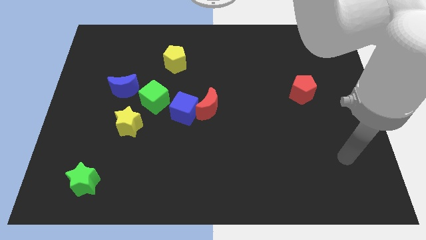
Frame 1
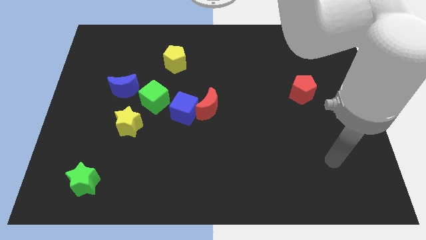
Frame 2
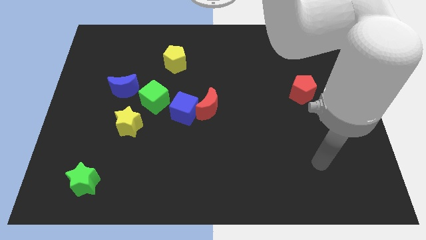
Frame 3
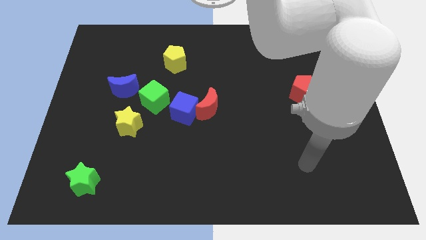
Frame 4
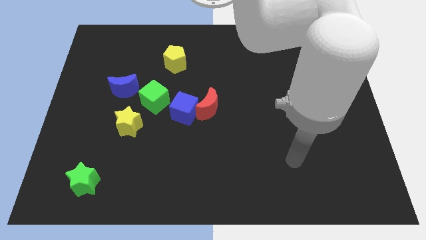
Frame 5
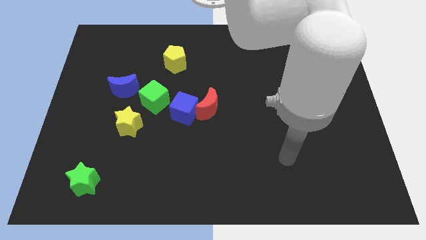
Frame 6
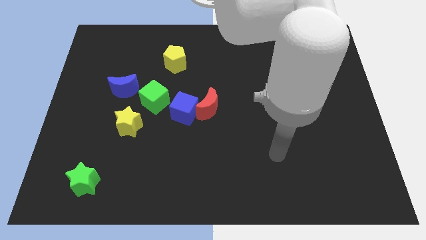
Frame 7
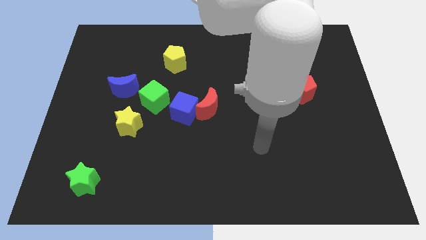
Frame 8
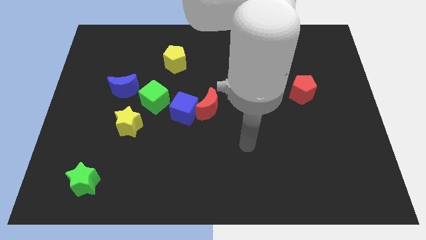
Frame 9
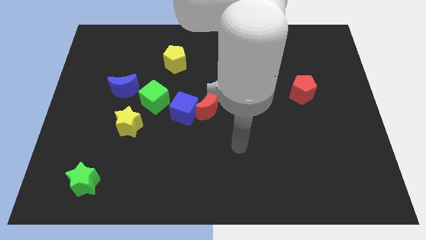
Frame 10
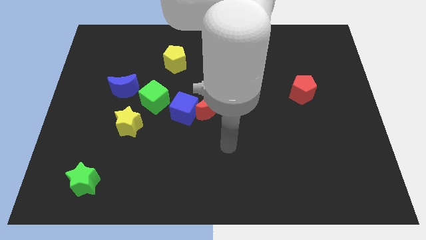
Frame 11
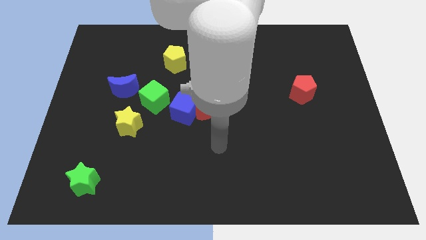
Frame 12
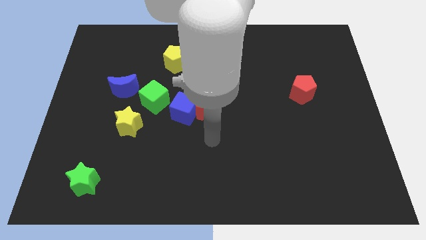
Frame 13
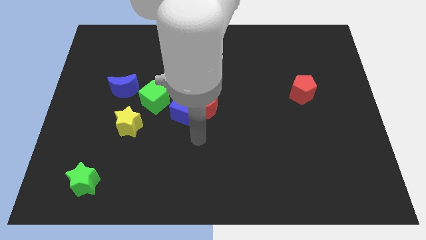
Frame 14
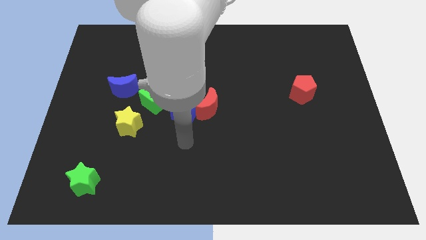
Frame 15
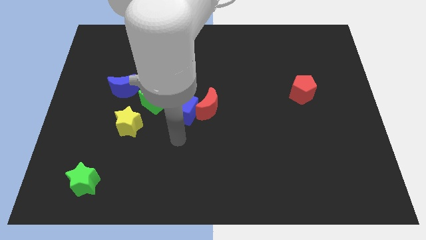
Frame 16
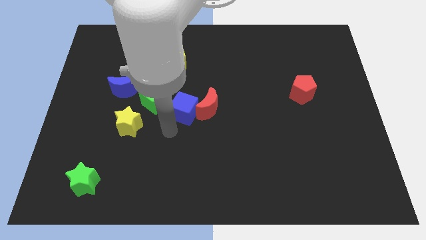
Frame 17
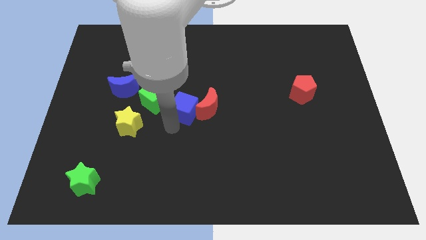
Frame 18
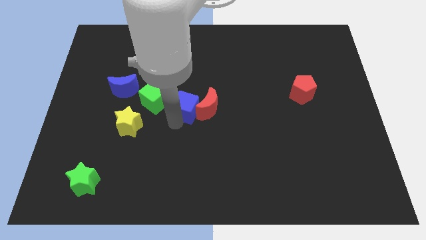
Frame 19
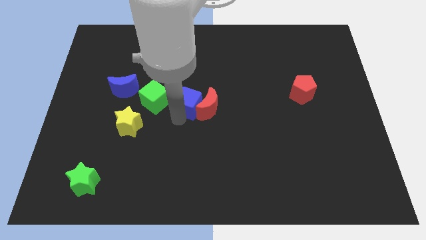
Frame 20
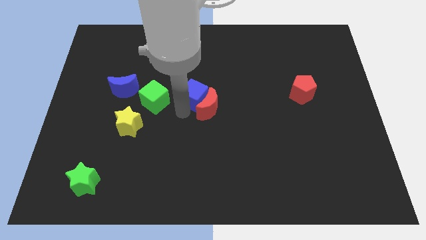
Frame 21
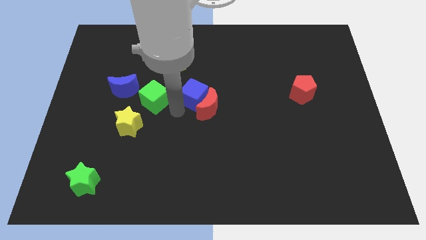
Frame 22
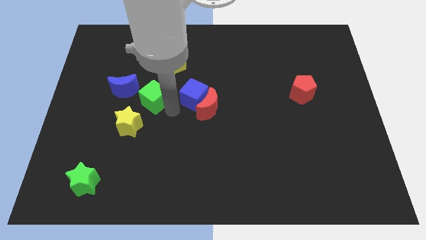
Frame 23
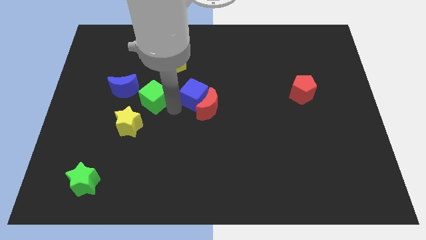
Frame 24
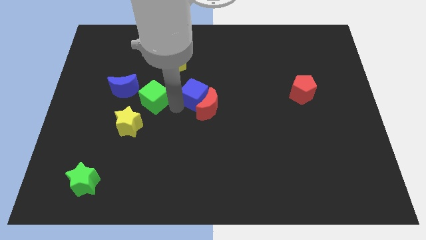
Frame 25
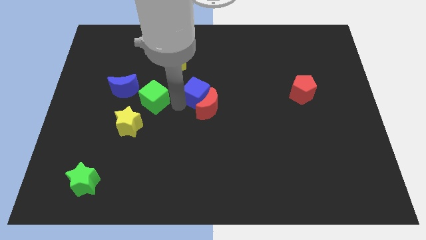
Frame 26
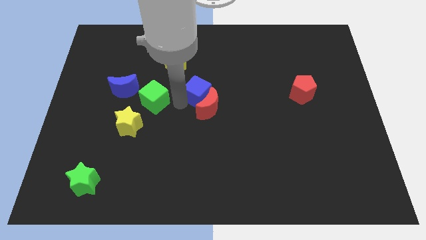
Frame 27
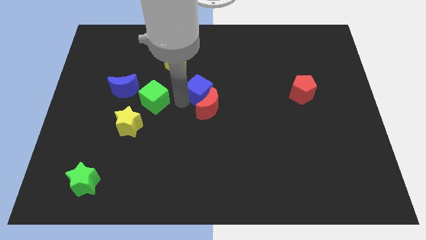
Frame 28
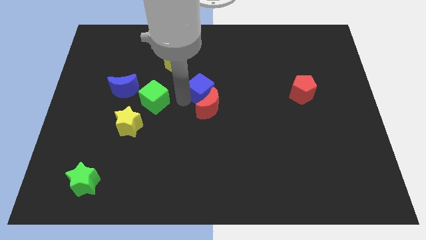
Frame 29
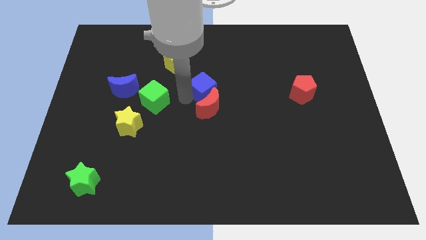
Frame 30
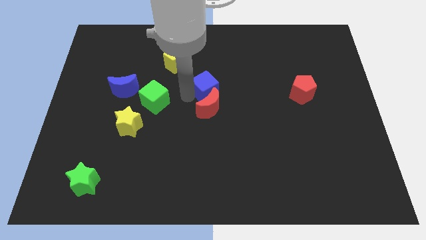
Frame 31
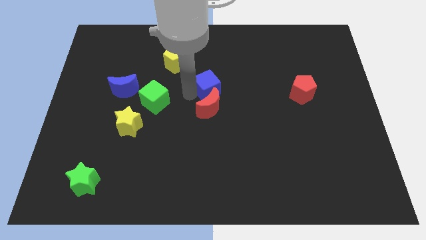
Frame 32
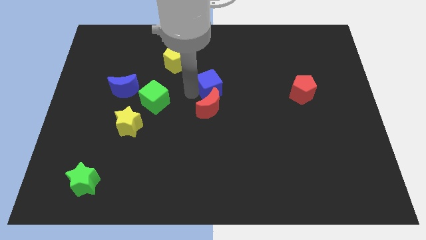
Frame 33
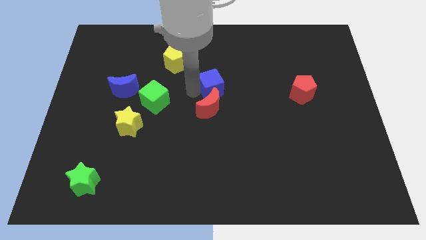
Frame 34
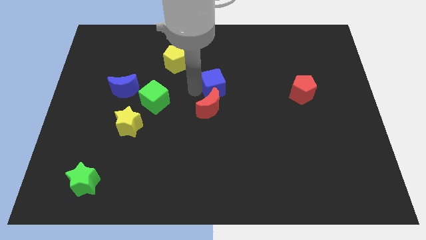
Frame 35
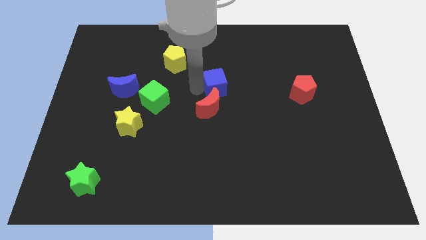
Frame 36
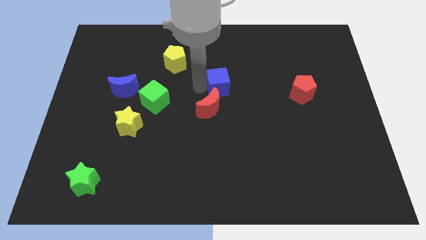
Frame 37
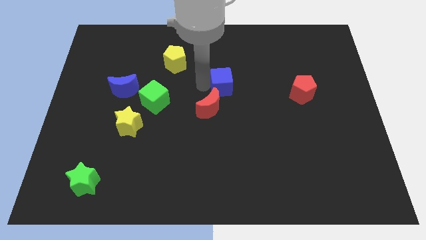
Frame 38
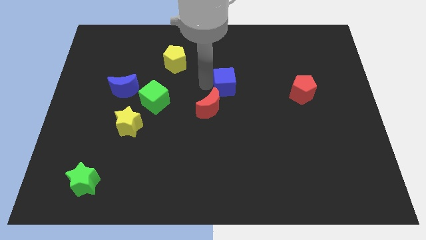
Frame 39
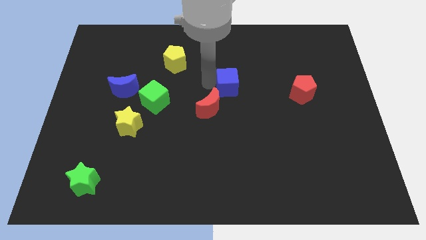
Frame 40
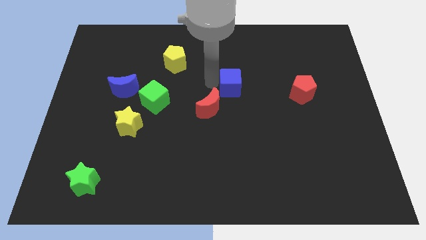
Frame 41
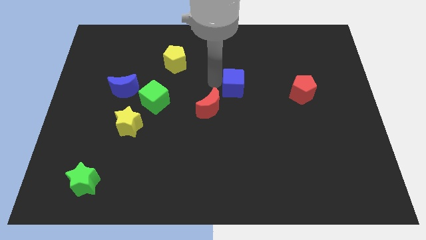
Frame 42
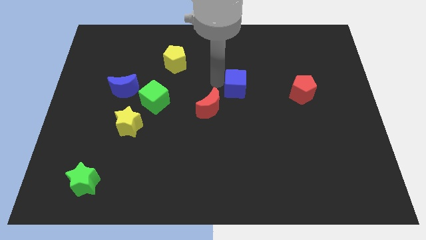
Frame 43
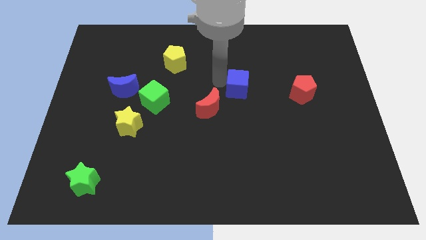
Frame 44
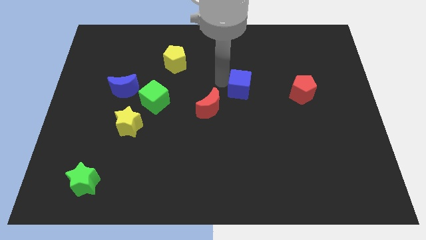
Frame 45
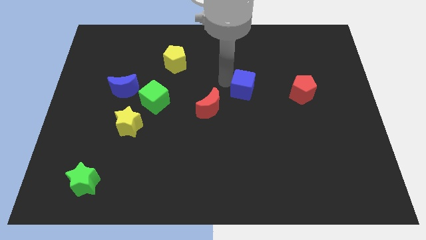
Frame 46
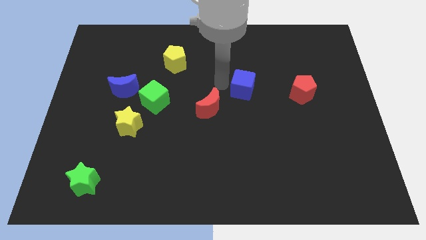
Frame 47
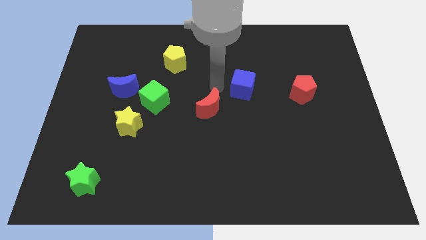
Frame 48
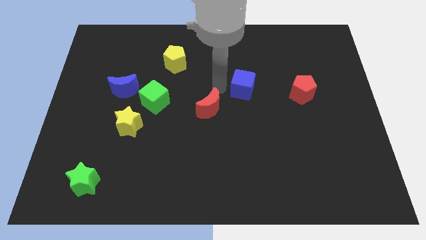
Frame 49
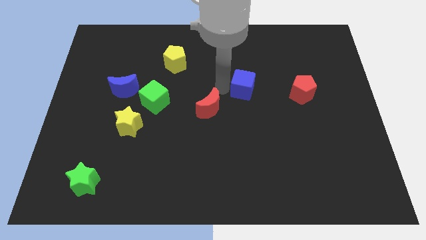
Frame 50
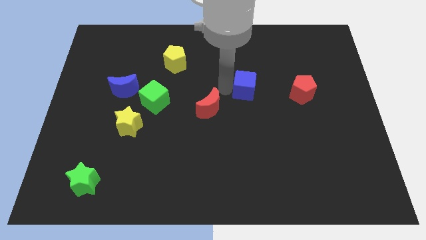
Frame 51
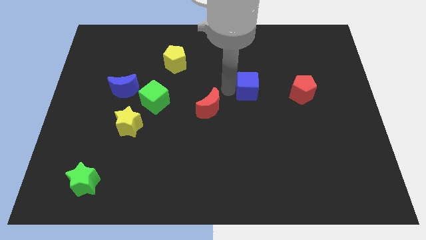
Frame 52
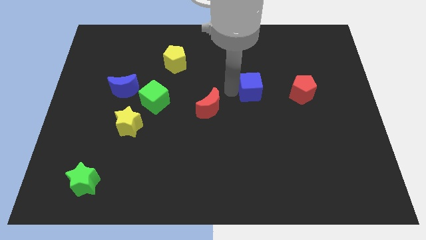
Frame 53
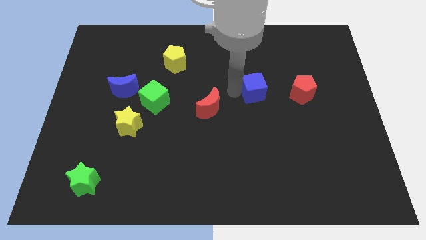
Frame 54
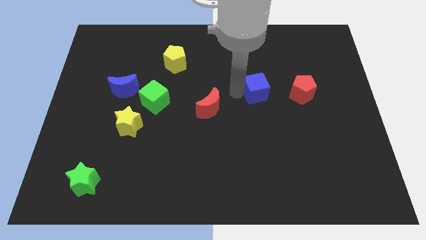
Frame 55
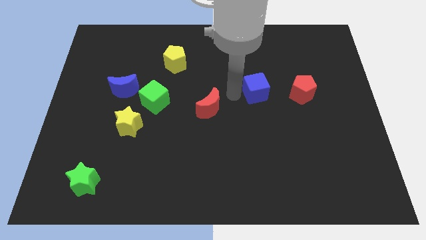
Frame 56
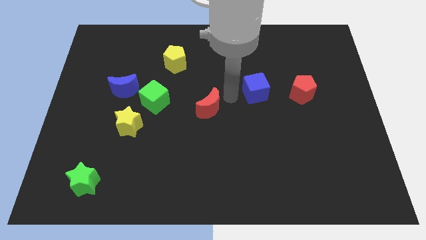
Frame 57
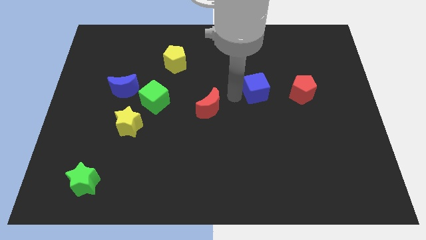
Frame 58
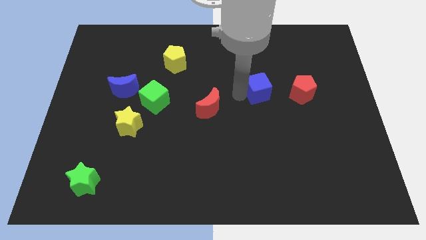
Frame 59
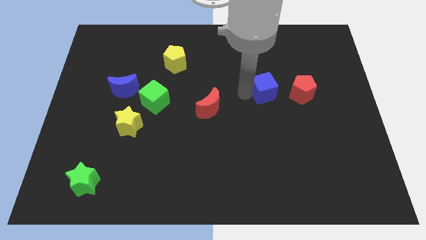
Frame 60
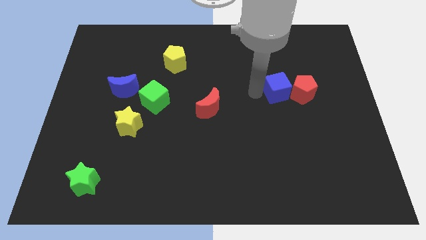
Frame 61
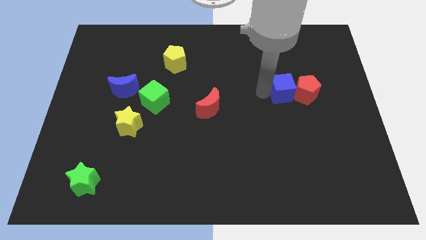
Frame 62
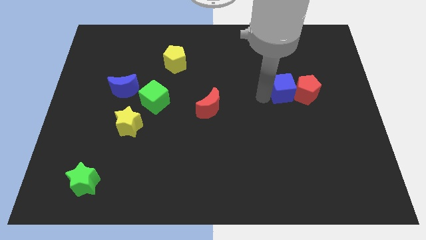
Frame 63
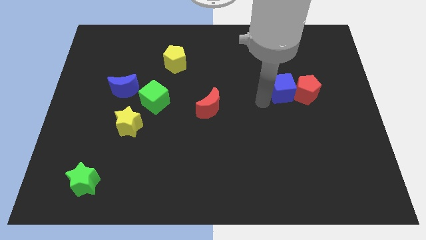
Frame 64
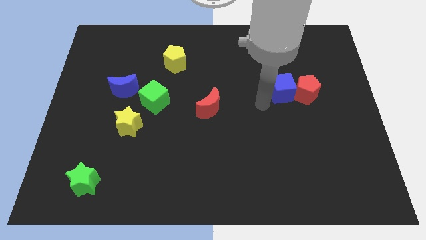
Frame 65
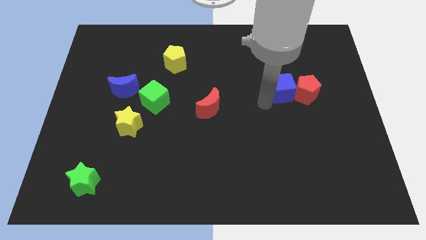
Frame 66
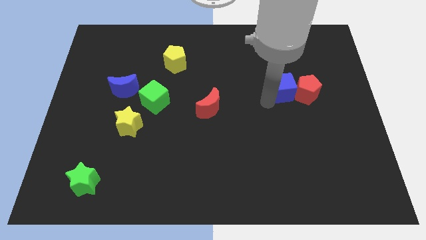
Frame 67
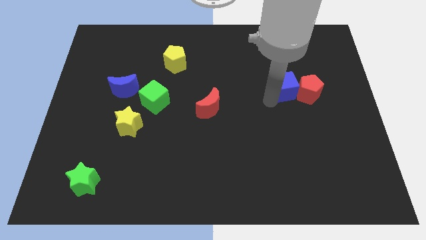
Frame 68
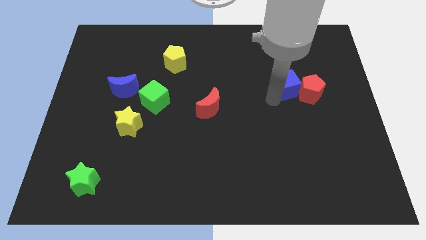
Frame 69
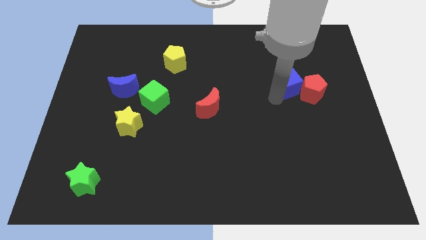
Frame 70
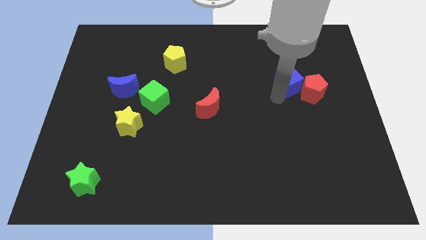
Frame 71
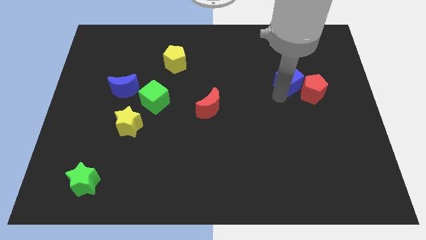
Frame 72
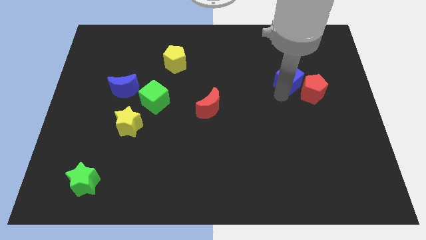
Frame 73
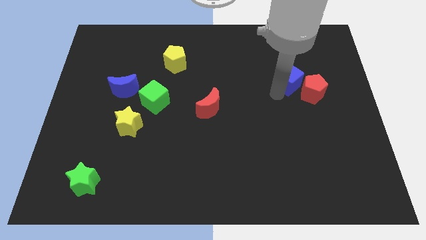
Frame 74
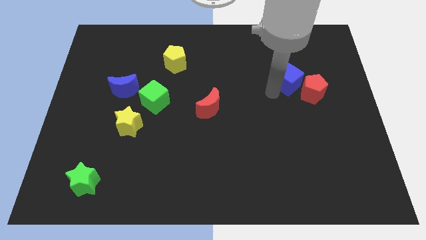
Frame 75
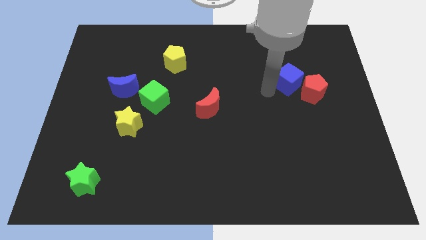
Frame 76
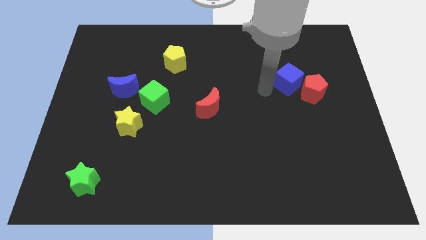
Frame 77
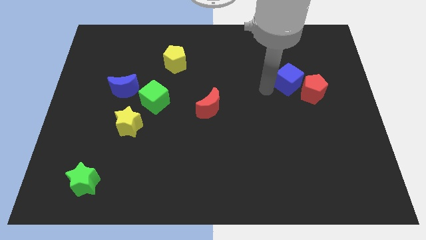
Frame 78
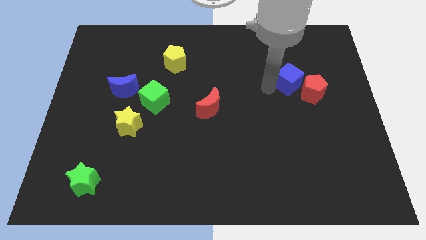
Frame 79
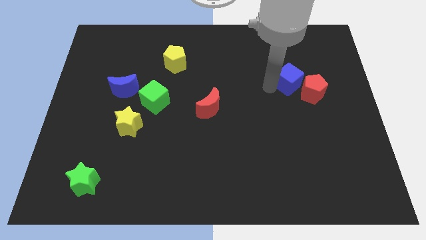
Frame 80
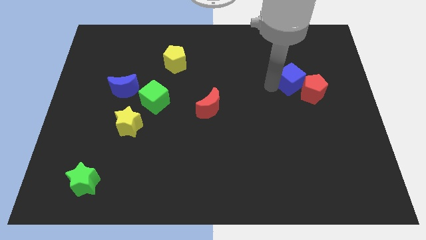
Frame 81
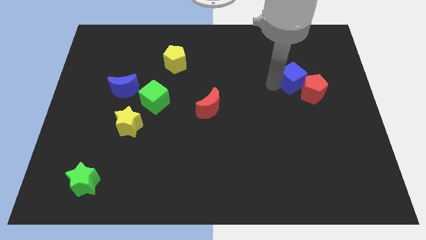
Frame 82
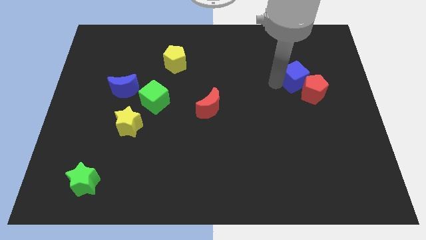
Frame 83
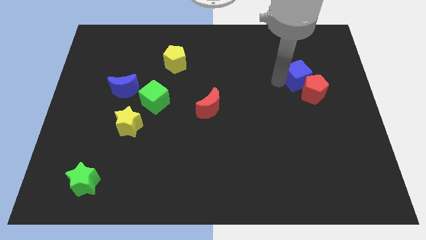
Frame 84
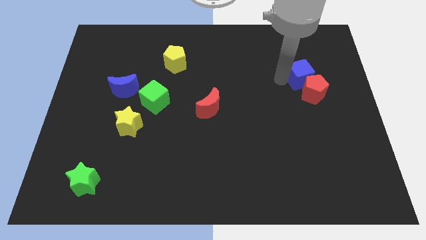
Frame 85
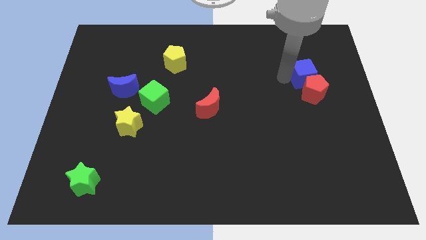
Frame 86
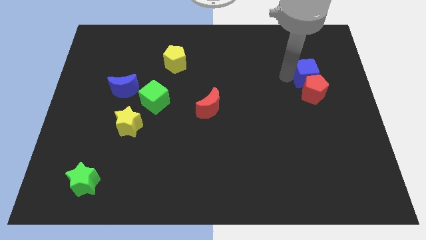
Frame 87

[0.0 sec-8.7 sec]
put the blue cube diagonally up and to the right of the red pentagon
